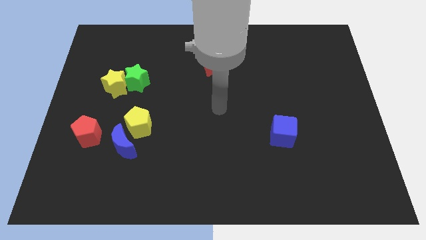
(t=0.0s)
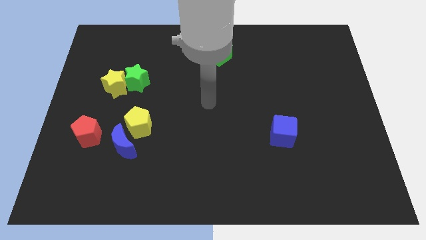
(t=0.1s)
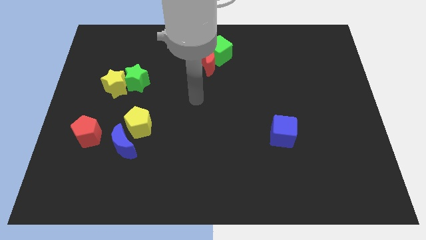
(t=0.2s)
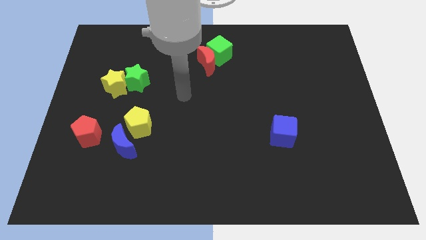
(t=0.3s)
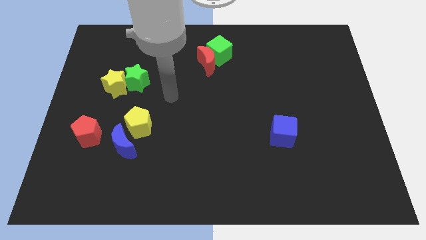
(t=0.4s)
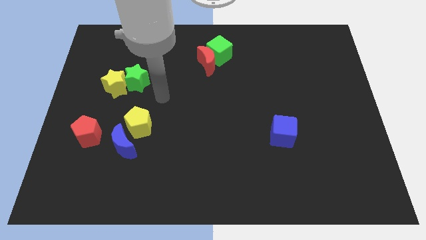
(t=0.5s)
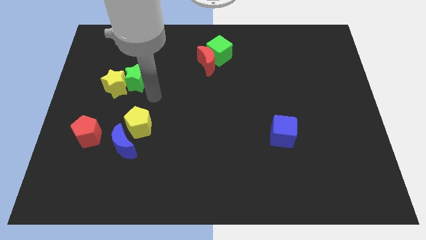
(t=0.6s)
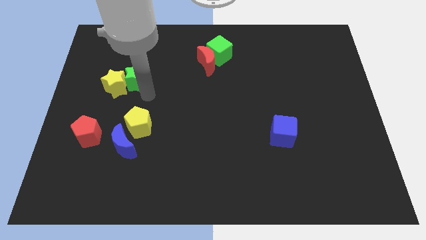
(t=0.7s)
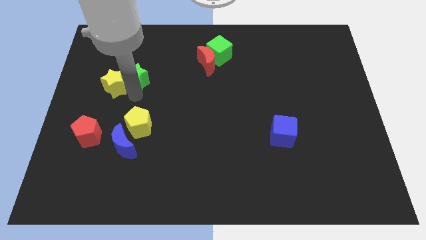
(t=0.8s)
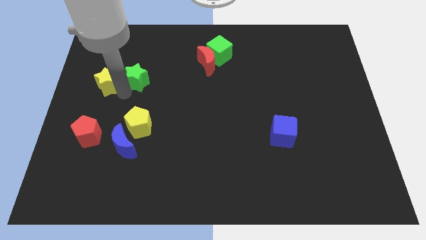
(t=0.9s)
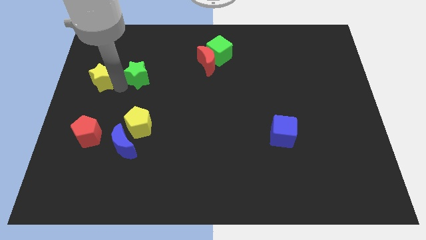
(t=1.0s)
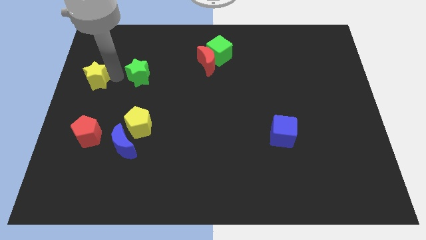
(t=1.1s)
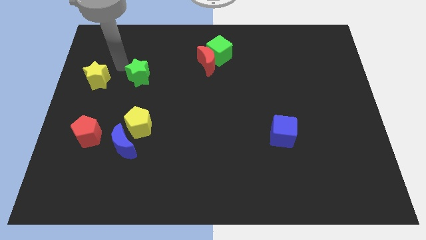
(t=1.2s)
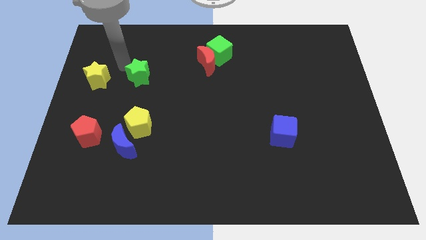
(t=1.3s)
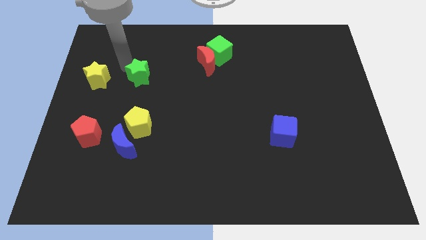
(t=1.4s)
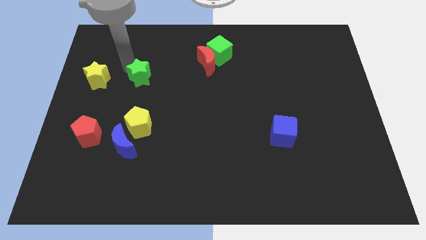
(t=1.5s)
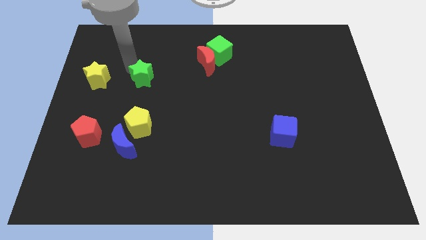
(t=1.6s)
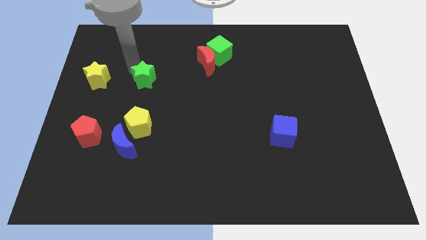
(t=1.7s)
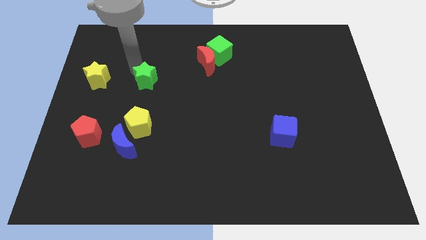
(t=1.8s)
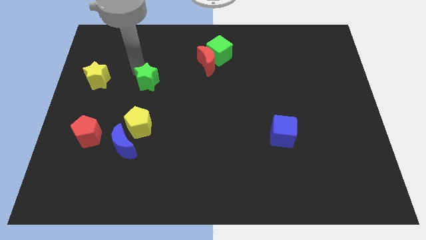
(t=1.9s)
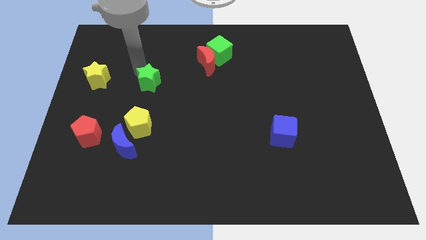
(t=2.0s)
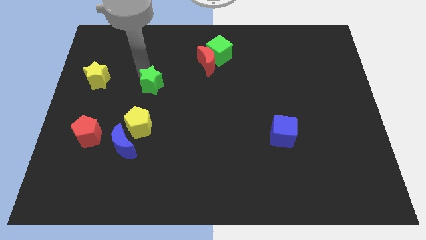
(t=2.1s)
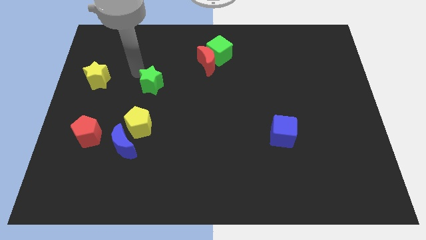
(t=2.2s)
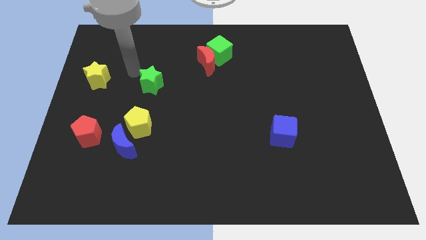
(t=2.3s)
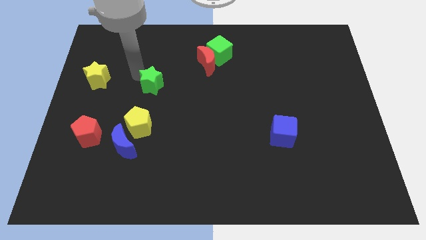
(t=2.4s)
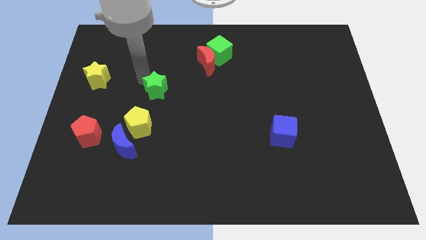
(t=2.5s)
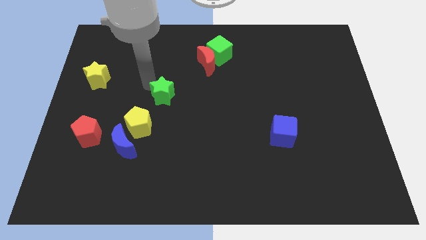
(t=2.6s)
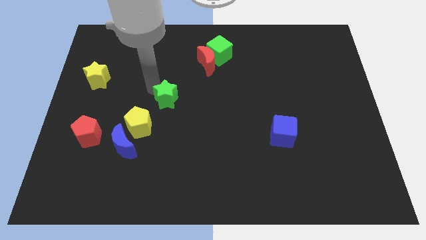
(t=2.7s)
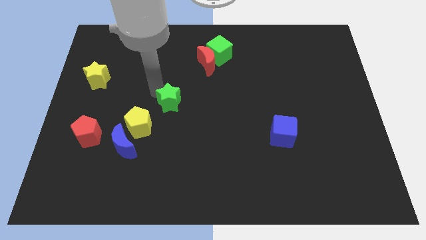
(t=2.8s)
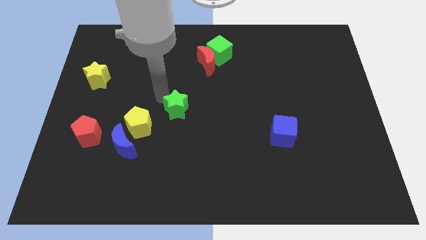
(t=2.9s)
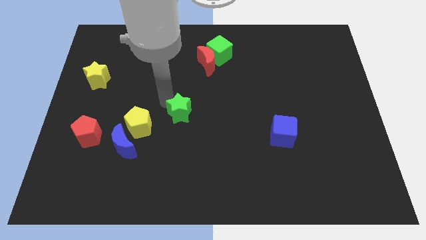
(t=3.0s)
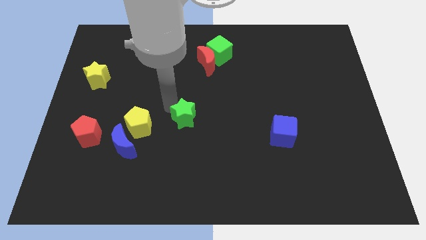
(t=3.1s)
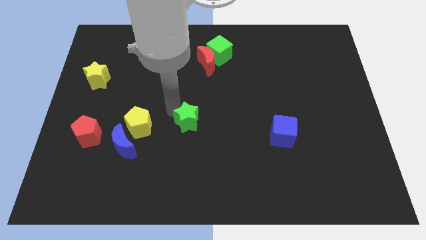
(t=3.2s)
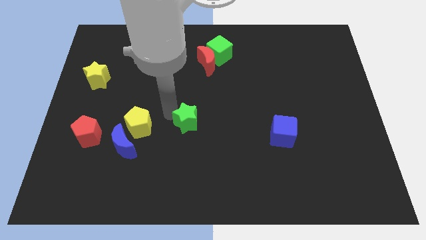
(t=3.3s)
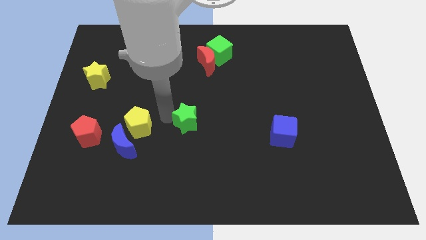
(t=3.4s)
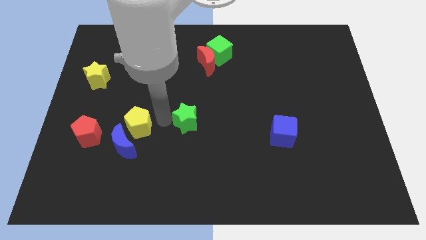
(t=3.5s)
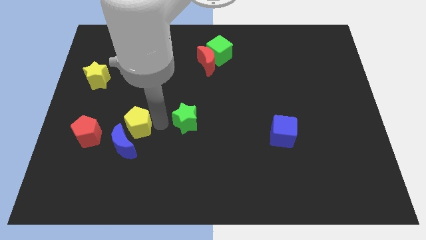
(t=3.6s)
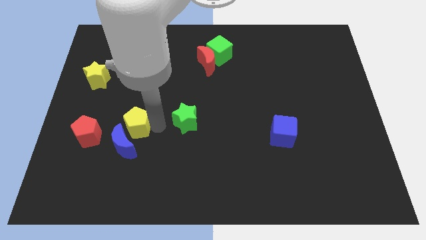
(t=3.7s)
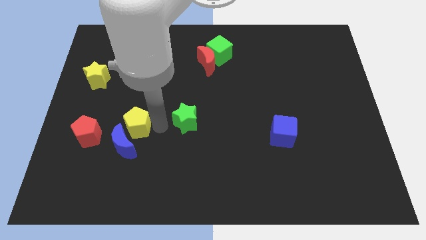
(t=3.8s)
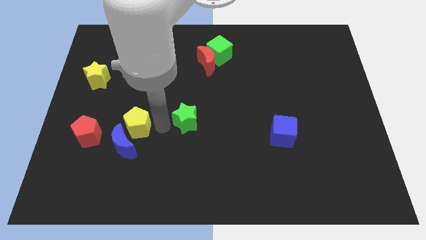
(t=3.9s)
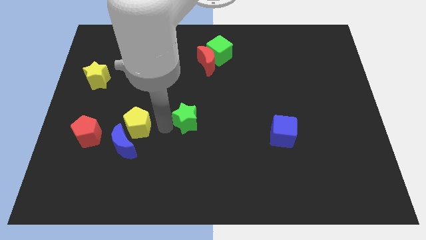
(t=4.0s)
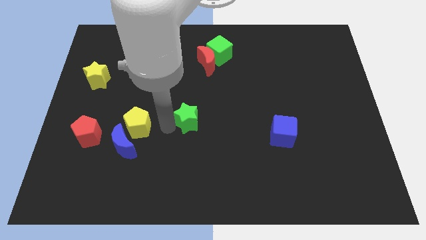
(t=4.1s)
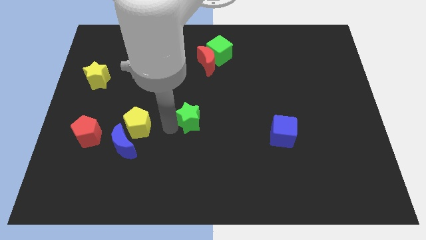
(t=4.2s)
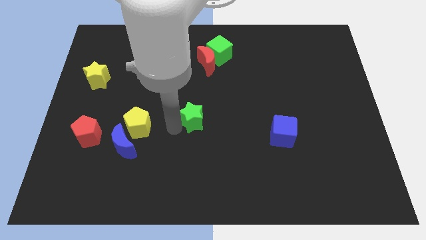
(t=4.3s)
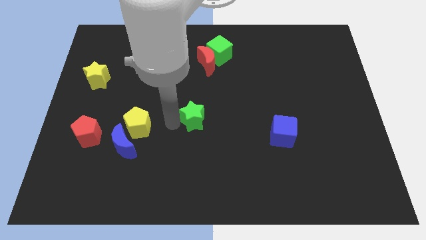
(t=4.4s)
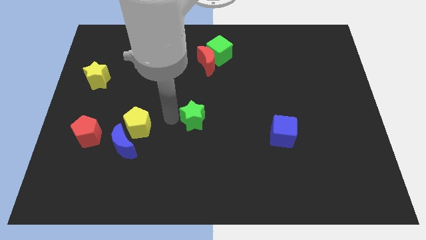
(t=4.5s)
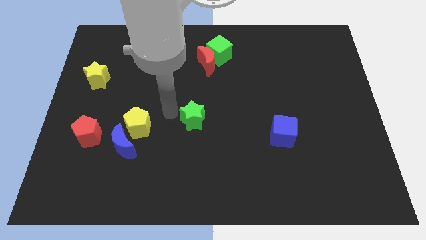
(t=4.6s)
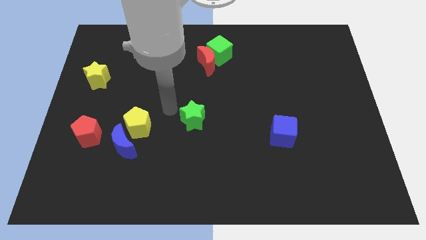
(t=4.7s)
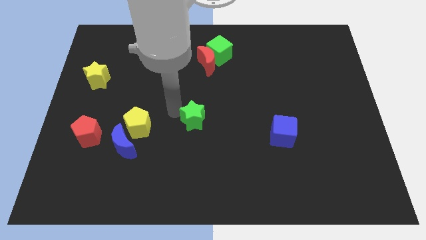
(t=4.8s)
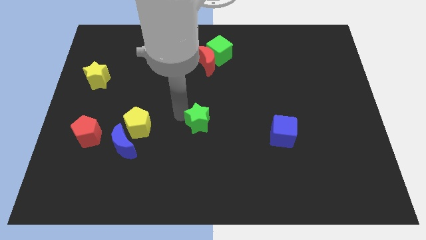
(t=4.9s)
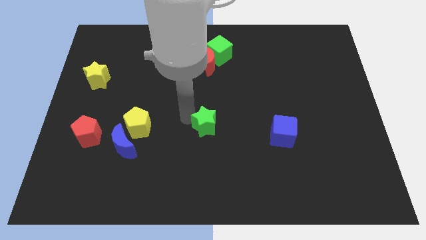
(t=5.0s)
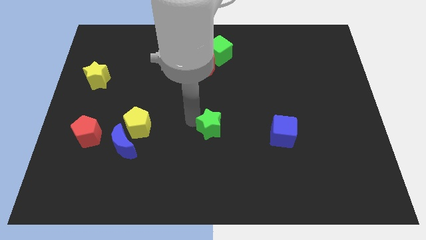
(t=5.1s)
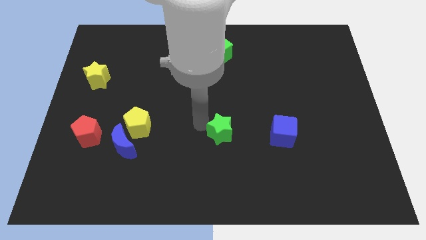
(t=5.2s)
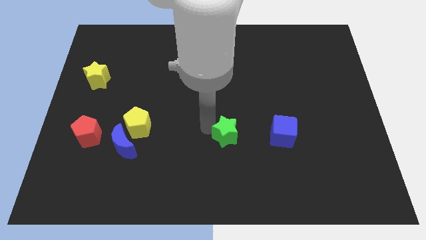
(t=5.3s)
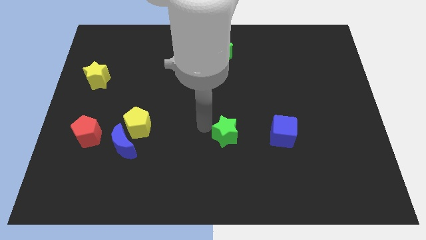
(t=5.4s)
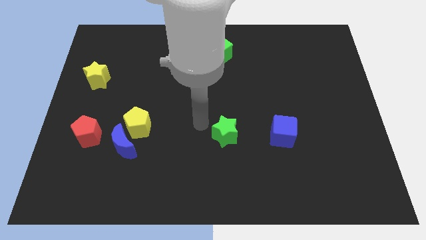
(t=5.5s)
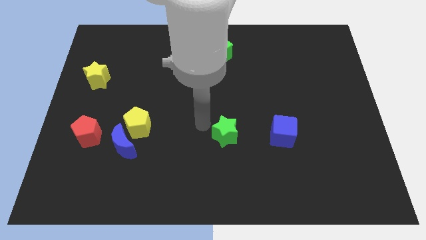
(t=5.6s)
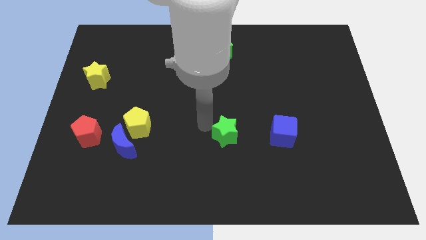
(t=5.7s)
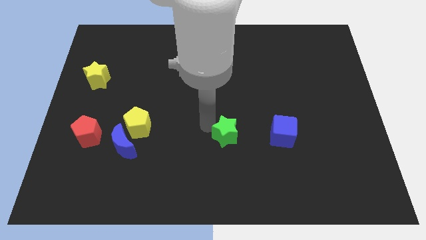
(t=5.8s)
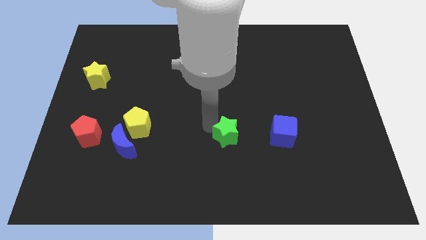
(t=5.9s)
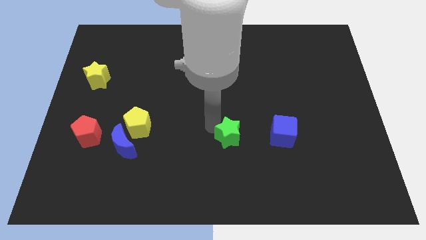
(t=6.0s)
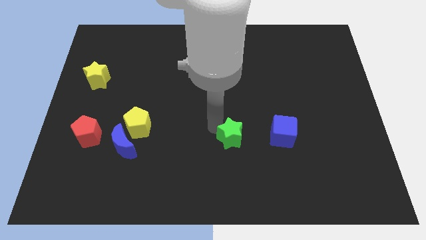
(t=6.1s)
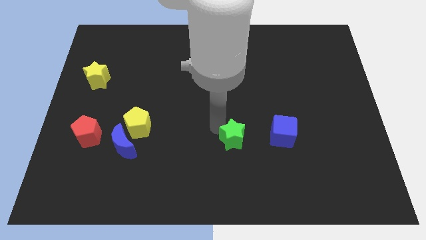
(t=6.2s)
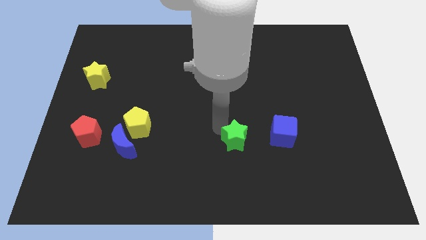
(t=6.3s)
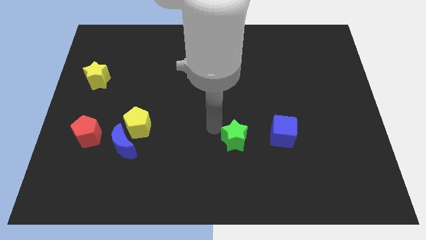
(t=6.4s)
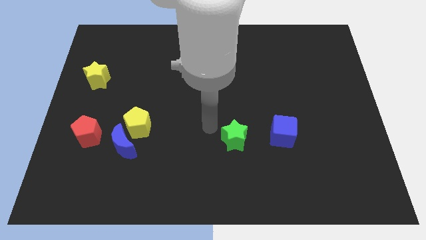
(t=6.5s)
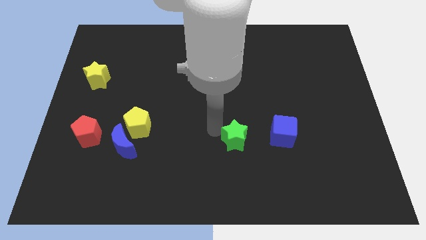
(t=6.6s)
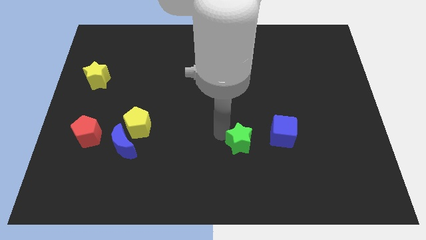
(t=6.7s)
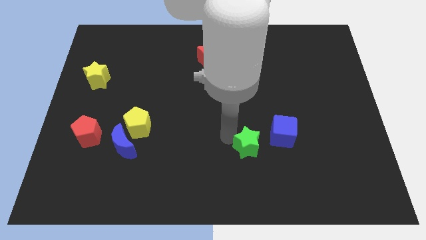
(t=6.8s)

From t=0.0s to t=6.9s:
move the green star to the bottom left of the blue cube

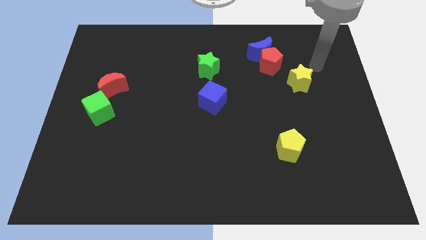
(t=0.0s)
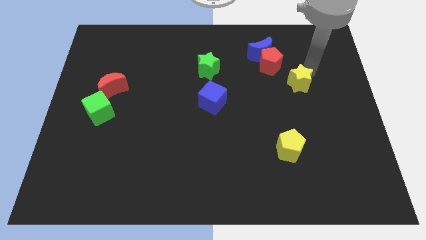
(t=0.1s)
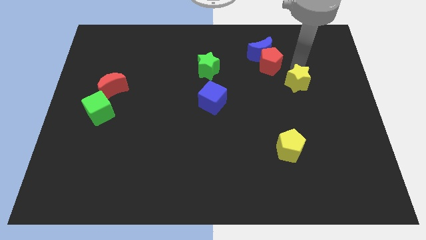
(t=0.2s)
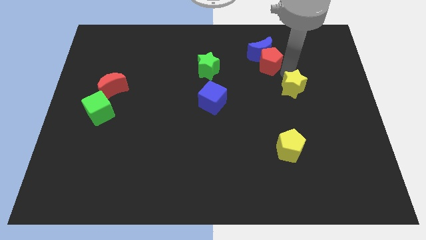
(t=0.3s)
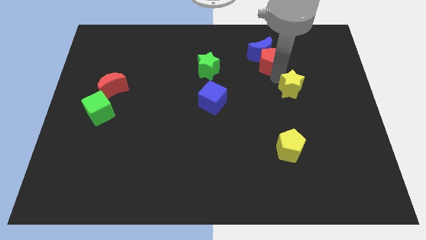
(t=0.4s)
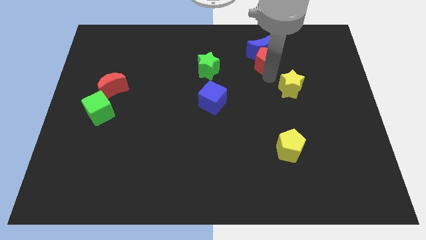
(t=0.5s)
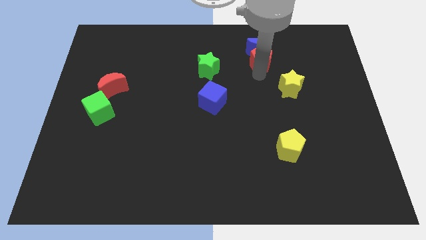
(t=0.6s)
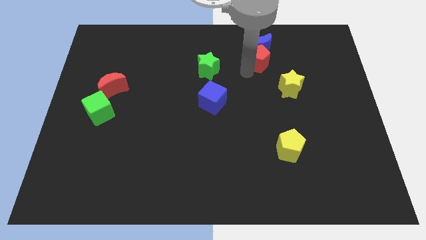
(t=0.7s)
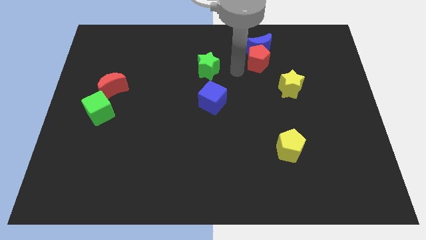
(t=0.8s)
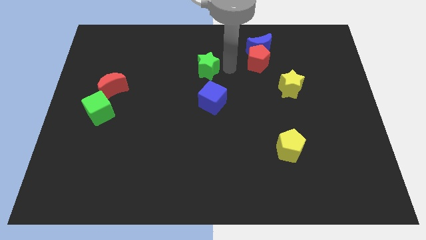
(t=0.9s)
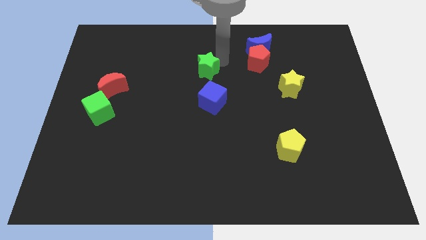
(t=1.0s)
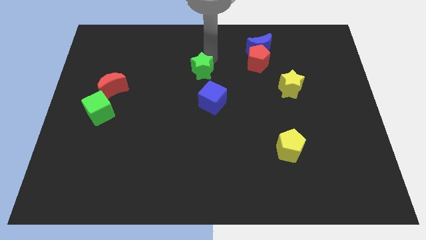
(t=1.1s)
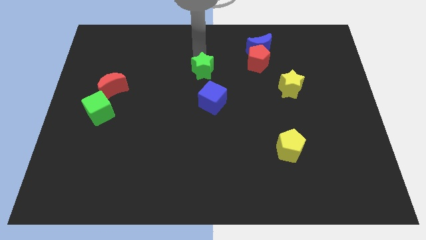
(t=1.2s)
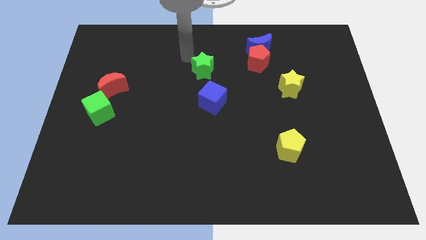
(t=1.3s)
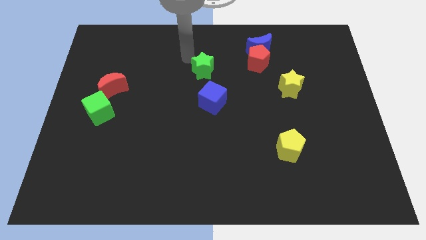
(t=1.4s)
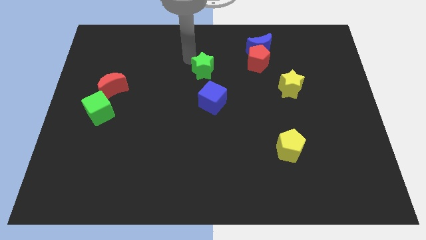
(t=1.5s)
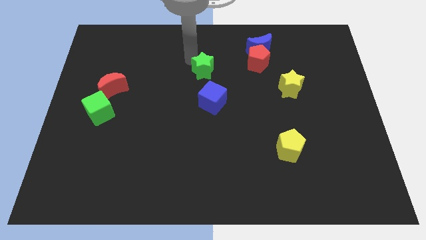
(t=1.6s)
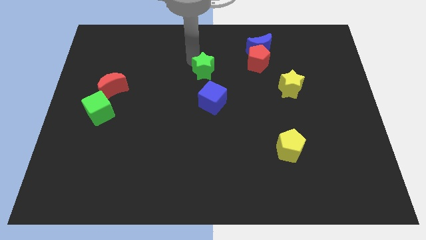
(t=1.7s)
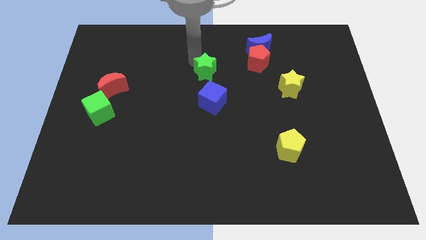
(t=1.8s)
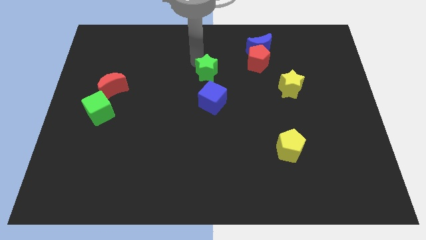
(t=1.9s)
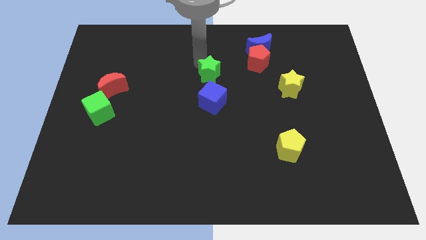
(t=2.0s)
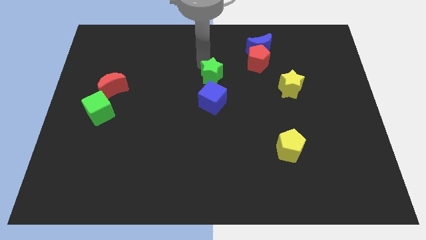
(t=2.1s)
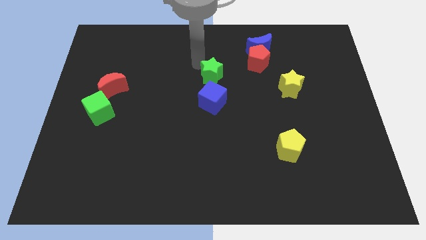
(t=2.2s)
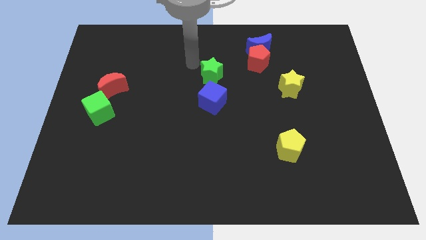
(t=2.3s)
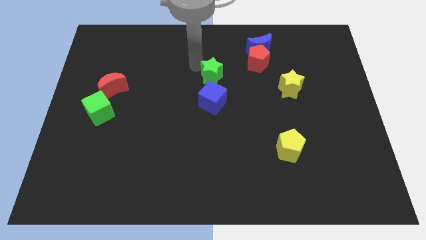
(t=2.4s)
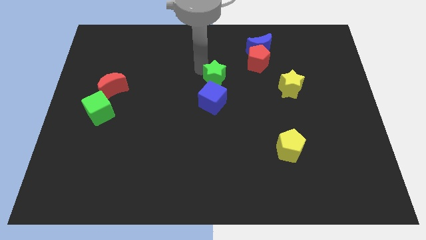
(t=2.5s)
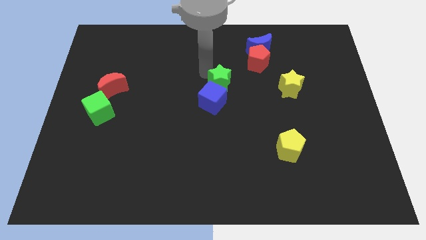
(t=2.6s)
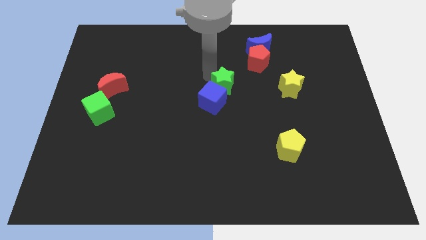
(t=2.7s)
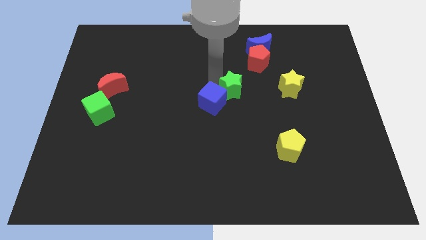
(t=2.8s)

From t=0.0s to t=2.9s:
slide the green star just right of the blue cube
